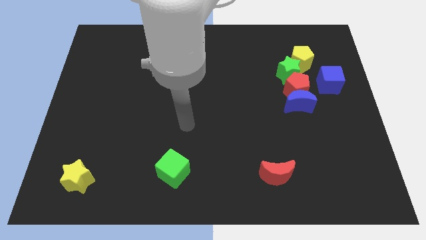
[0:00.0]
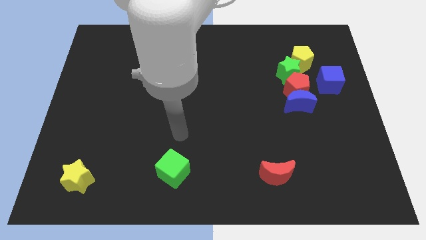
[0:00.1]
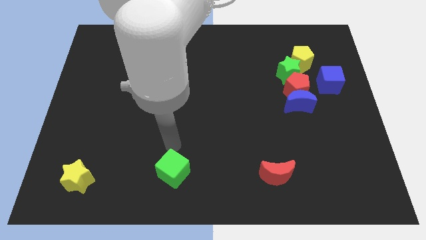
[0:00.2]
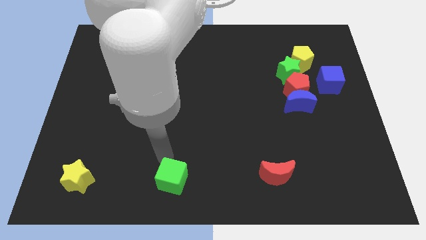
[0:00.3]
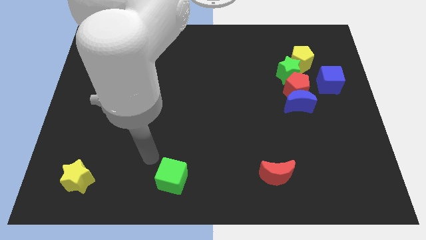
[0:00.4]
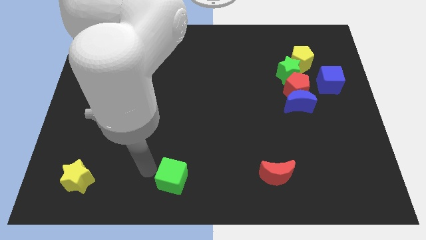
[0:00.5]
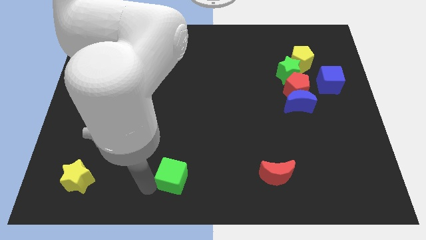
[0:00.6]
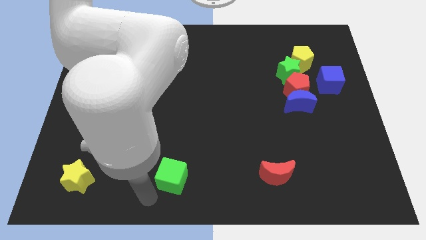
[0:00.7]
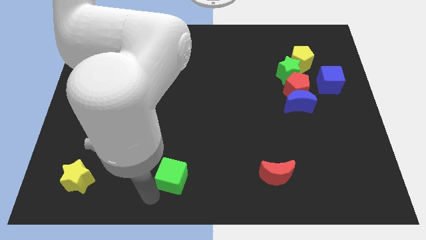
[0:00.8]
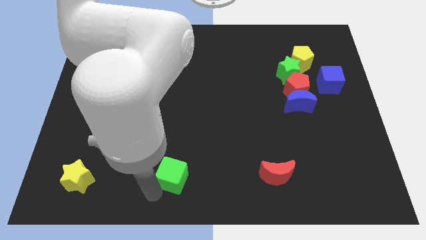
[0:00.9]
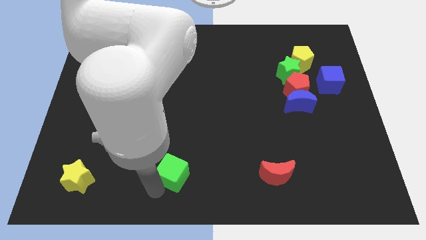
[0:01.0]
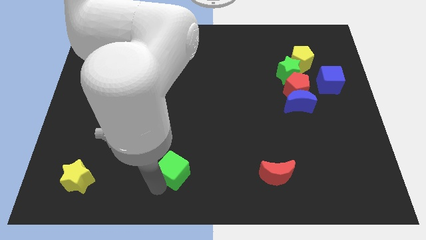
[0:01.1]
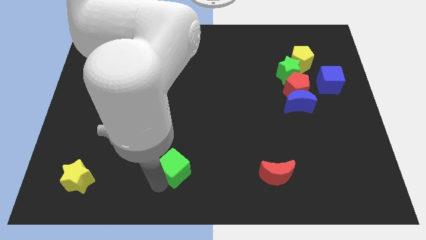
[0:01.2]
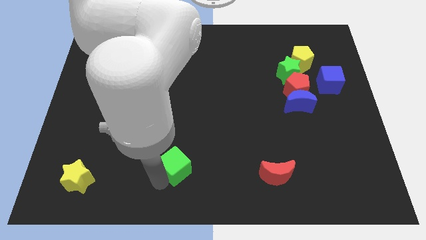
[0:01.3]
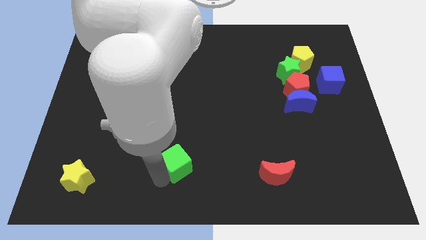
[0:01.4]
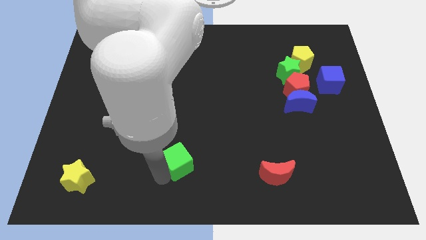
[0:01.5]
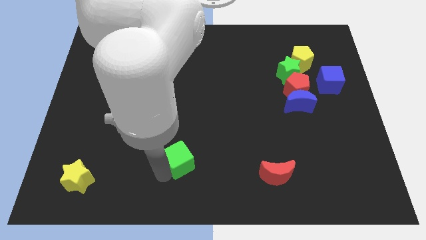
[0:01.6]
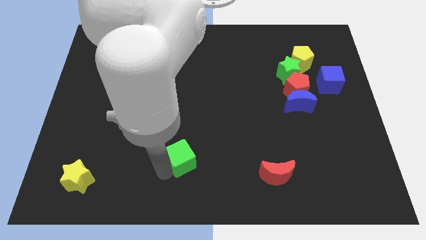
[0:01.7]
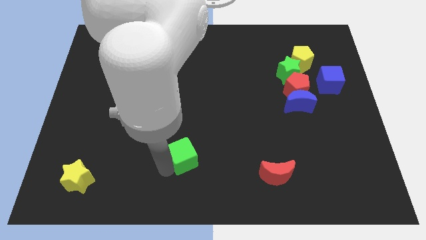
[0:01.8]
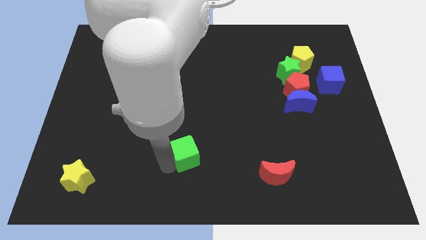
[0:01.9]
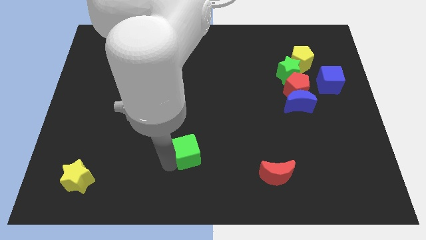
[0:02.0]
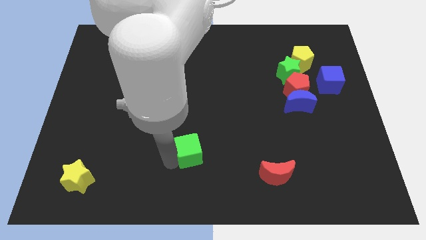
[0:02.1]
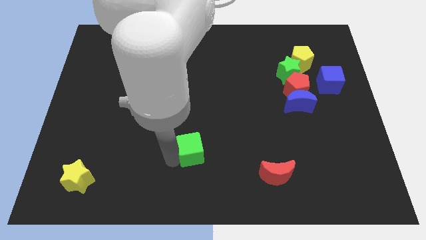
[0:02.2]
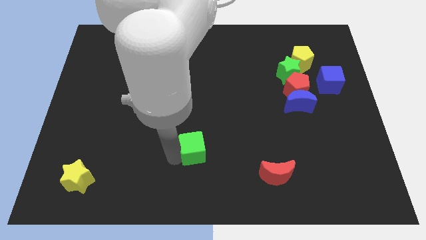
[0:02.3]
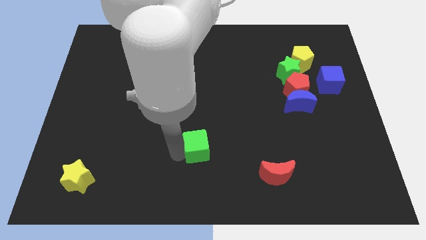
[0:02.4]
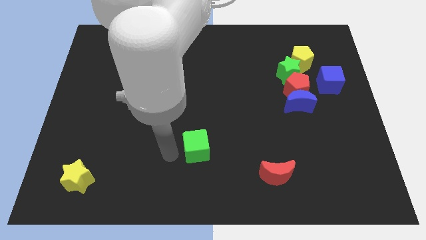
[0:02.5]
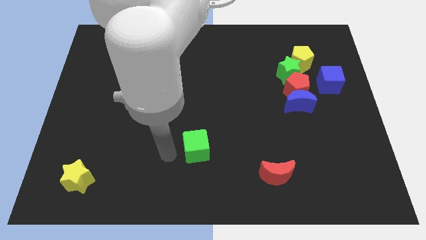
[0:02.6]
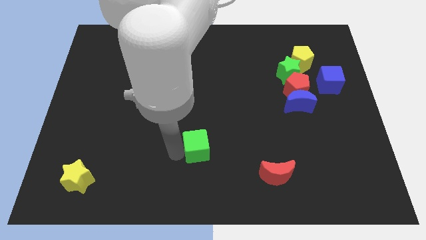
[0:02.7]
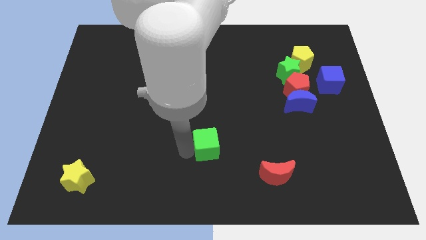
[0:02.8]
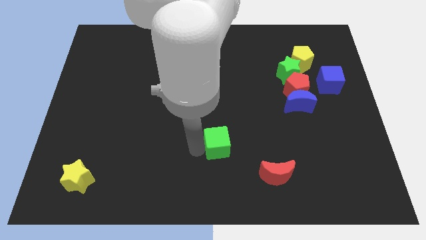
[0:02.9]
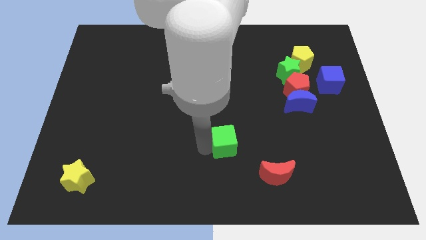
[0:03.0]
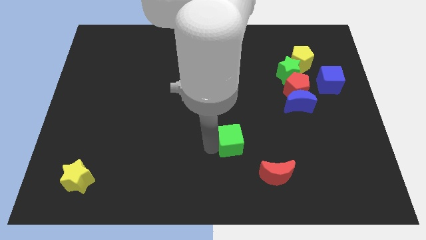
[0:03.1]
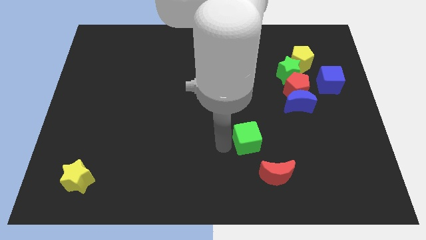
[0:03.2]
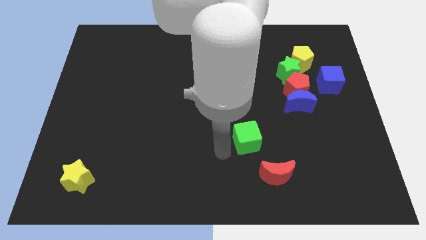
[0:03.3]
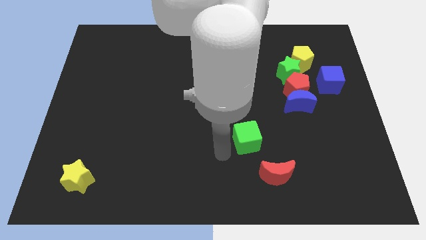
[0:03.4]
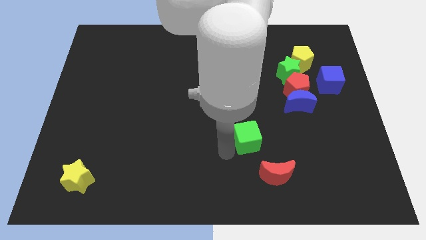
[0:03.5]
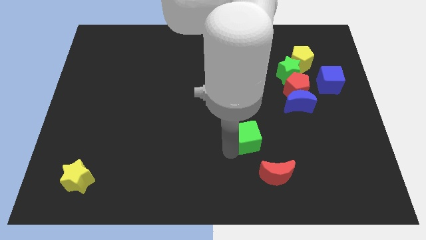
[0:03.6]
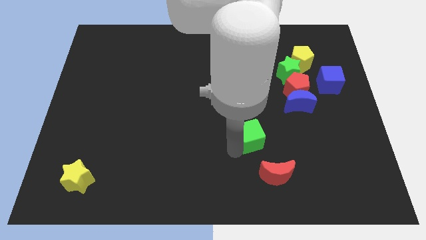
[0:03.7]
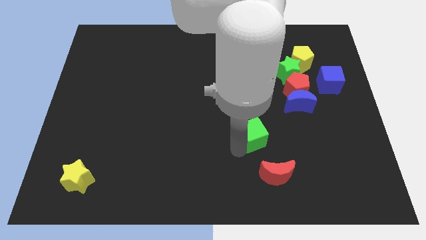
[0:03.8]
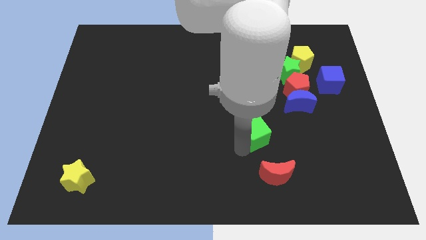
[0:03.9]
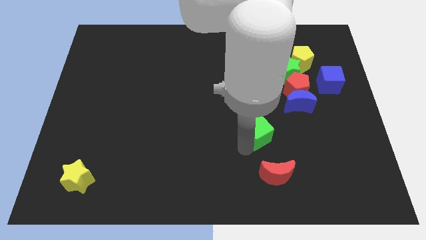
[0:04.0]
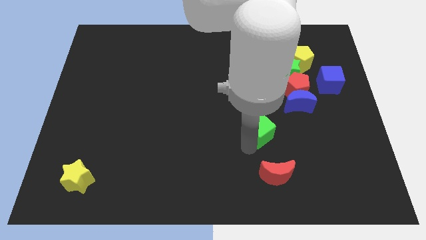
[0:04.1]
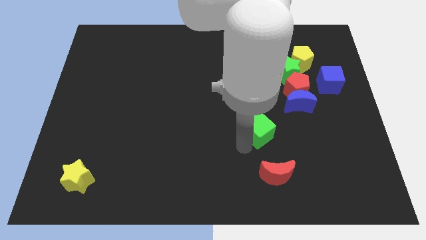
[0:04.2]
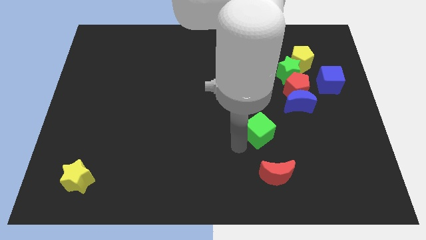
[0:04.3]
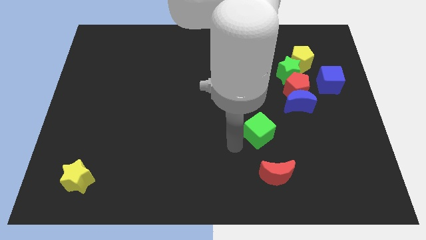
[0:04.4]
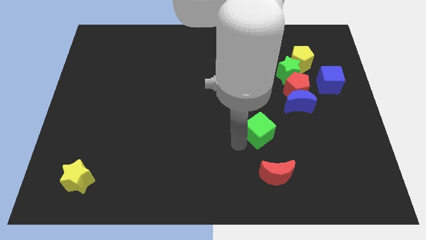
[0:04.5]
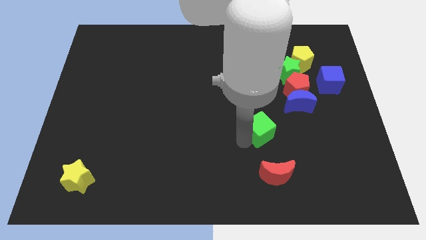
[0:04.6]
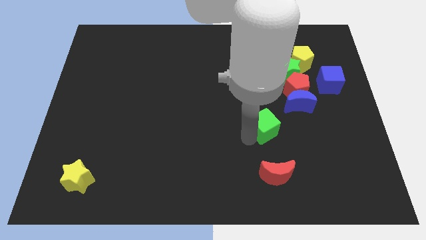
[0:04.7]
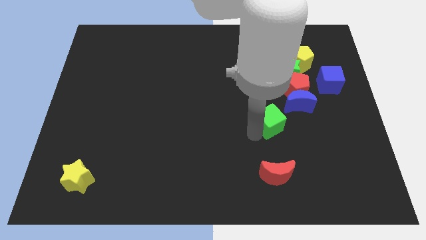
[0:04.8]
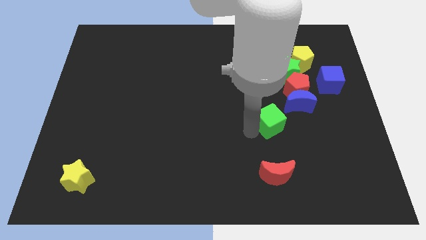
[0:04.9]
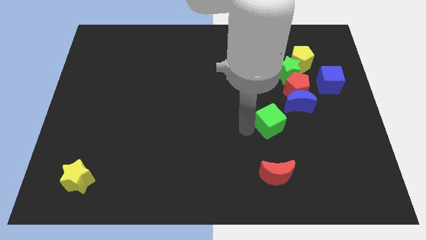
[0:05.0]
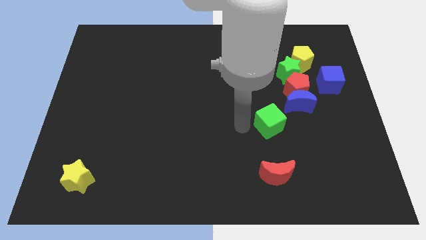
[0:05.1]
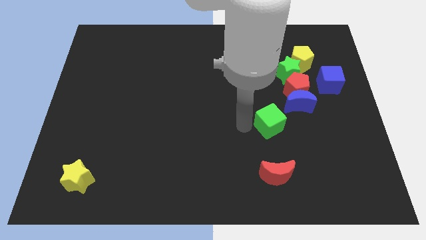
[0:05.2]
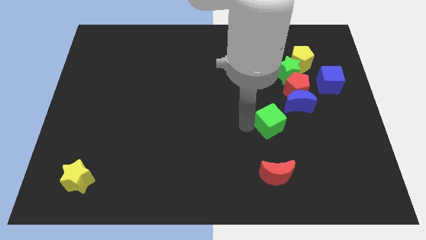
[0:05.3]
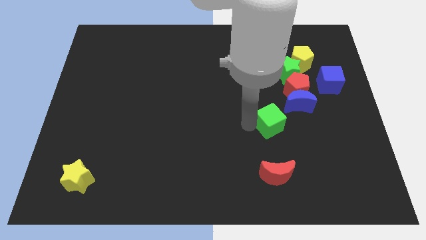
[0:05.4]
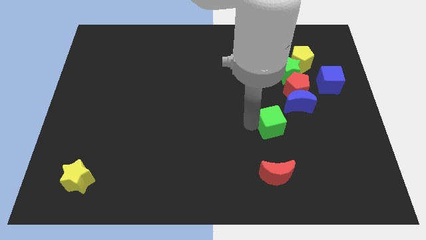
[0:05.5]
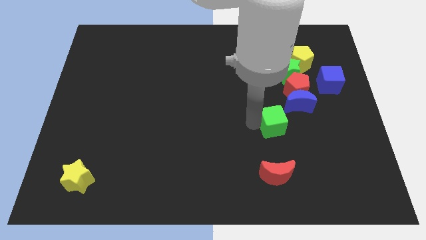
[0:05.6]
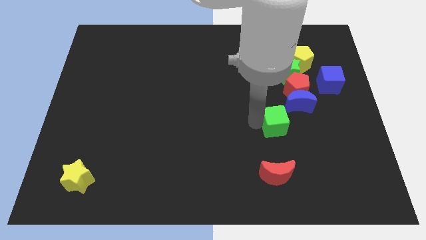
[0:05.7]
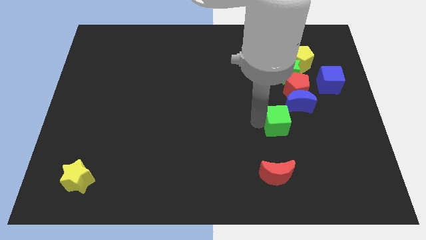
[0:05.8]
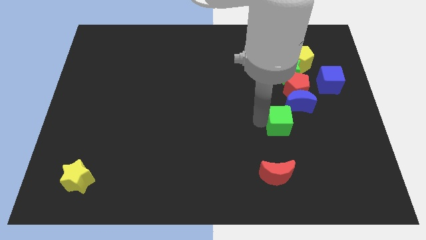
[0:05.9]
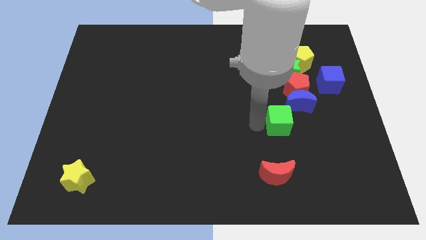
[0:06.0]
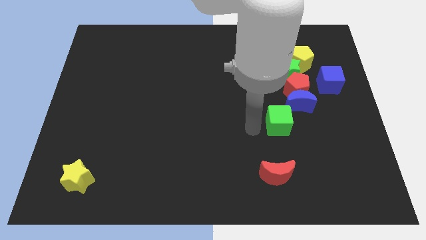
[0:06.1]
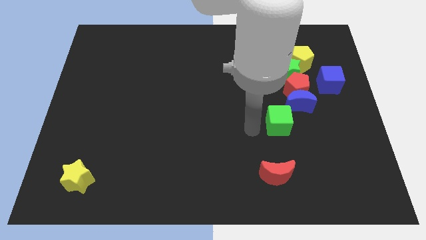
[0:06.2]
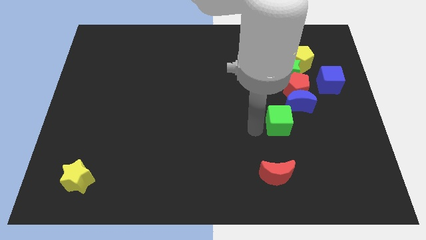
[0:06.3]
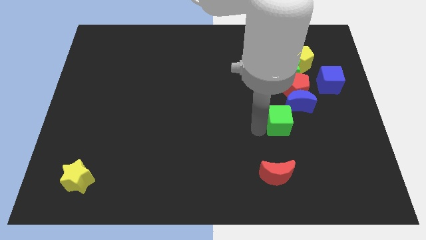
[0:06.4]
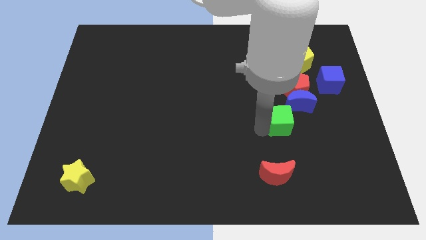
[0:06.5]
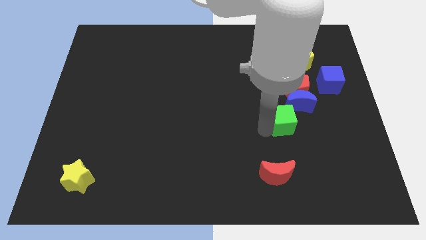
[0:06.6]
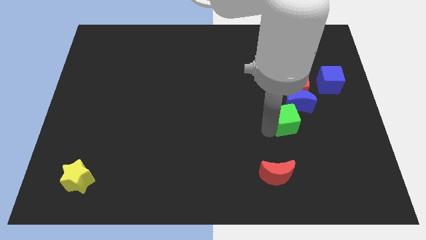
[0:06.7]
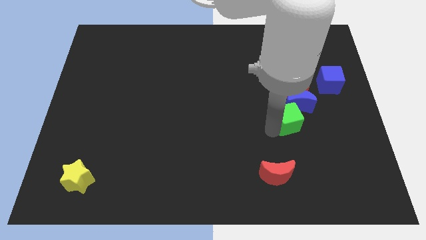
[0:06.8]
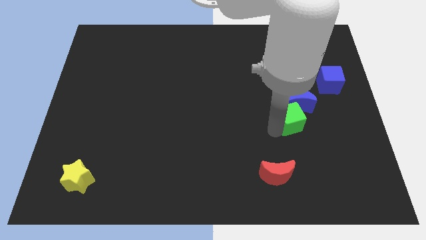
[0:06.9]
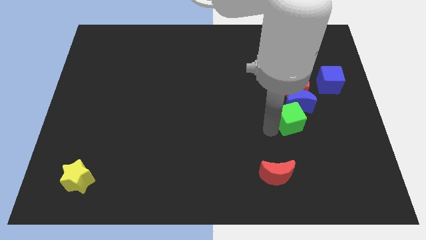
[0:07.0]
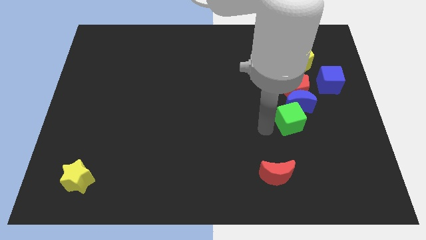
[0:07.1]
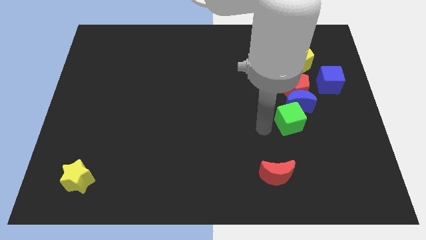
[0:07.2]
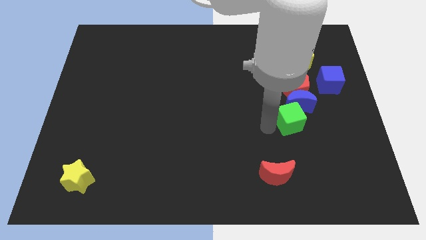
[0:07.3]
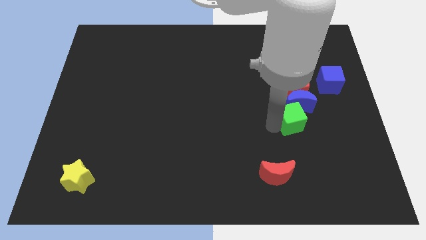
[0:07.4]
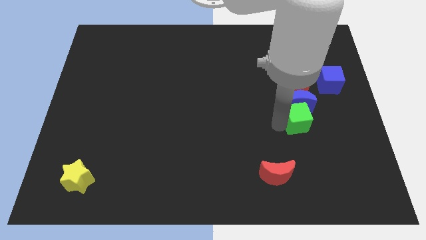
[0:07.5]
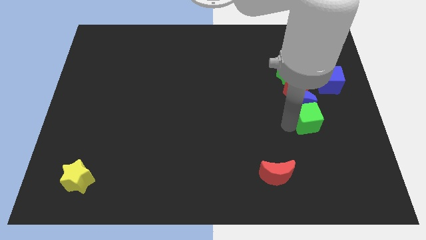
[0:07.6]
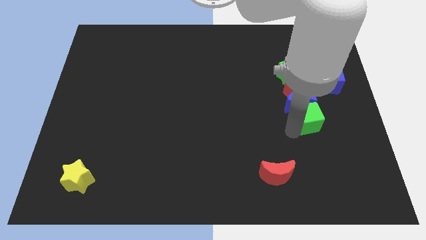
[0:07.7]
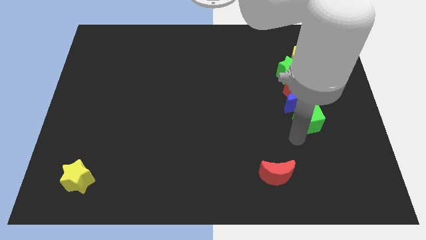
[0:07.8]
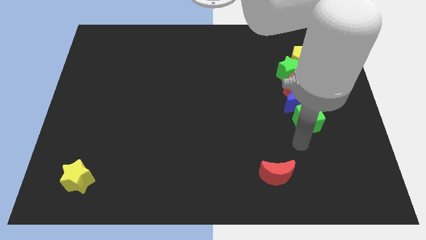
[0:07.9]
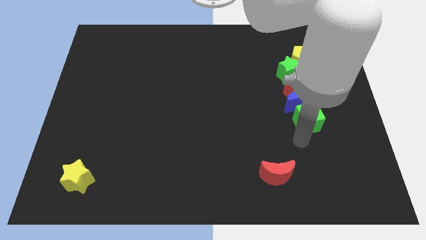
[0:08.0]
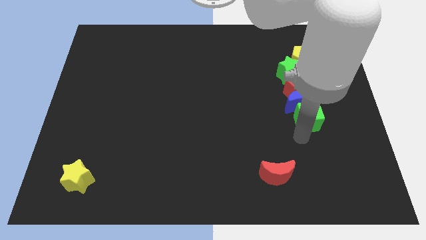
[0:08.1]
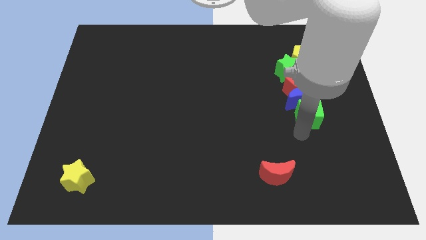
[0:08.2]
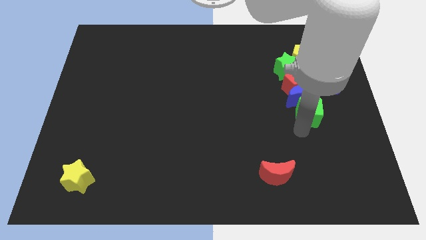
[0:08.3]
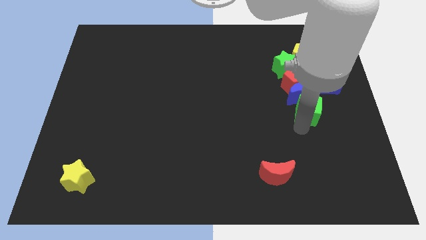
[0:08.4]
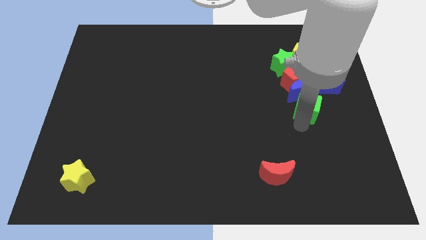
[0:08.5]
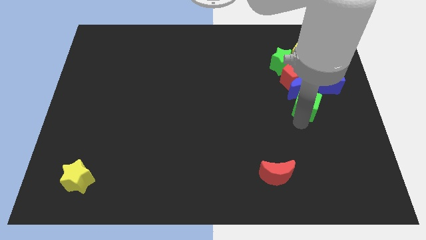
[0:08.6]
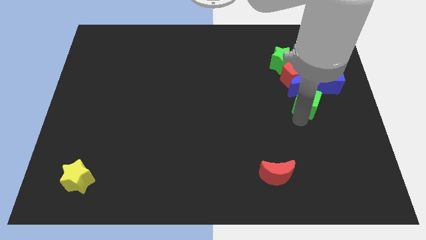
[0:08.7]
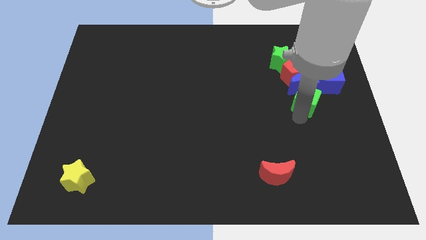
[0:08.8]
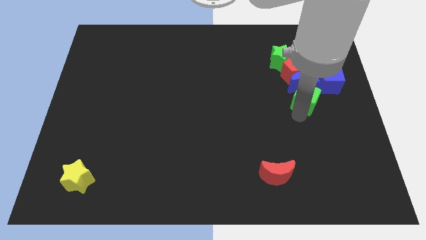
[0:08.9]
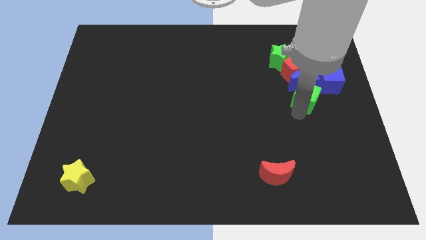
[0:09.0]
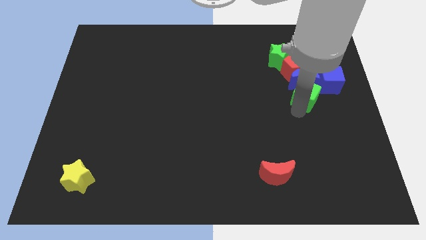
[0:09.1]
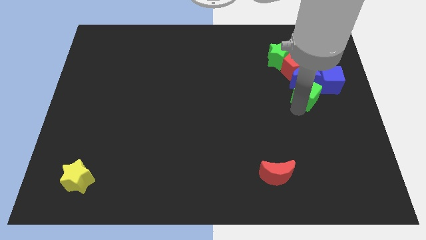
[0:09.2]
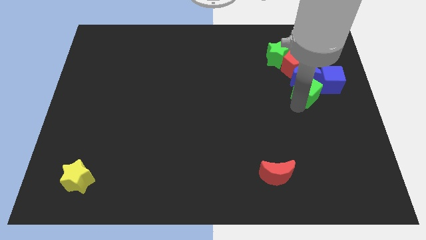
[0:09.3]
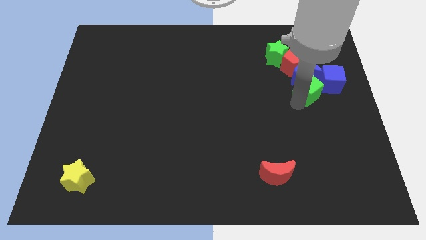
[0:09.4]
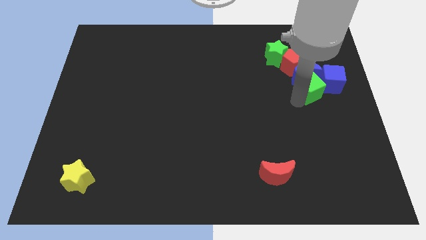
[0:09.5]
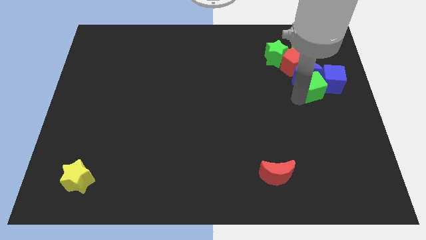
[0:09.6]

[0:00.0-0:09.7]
move the green cube to the blue cube
